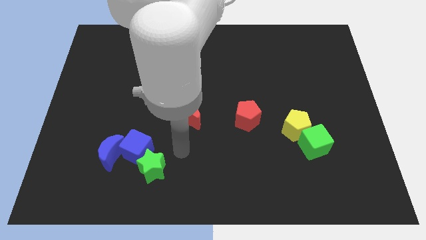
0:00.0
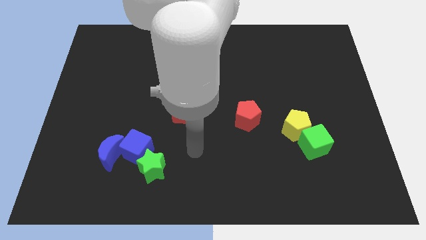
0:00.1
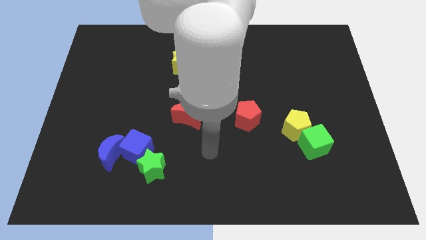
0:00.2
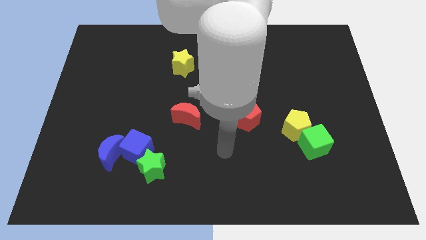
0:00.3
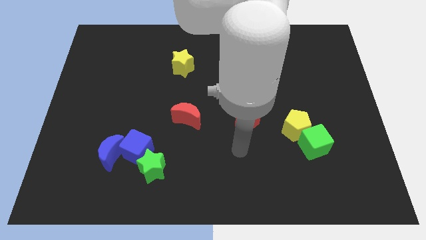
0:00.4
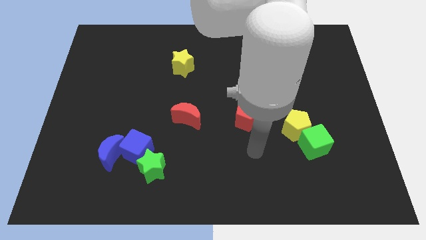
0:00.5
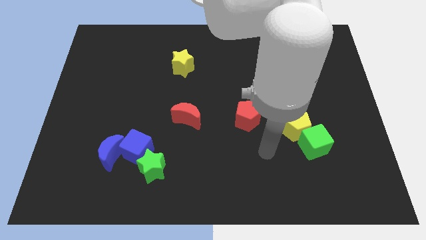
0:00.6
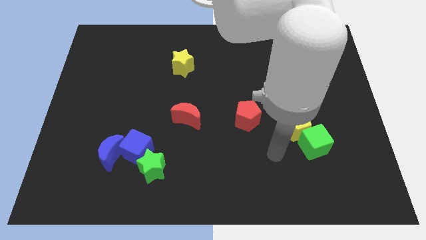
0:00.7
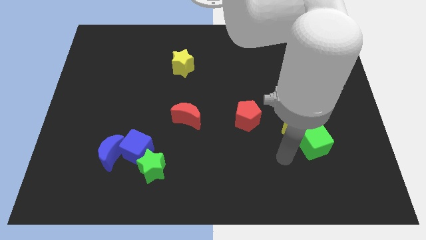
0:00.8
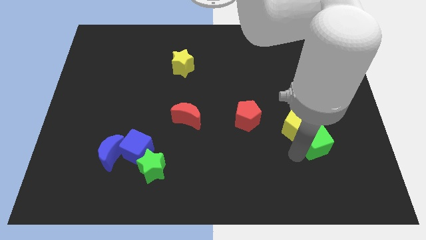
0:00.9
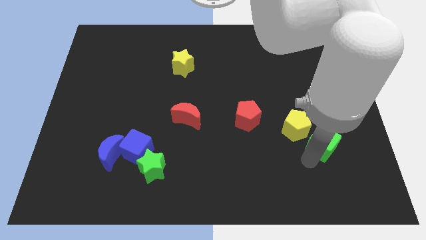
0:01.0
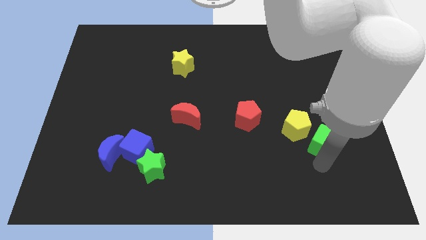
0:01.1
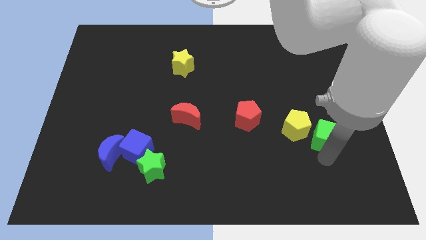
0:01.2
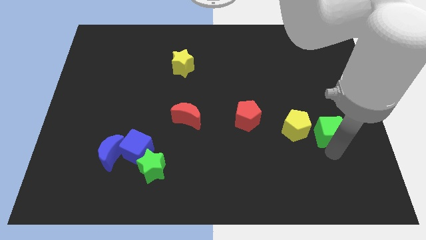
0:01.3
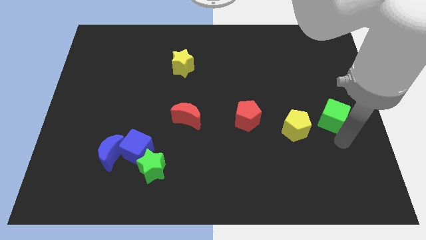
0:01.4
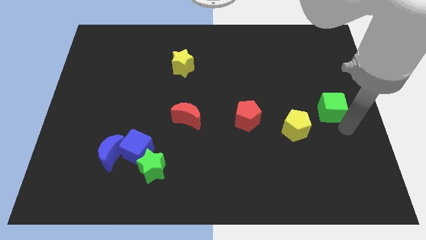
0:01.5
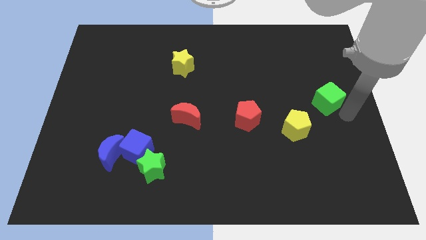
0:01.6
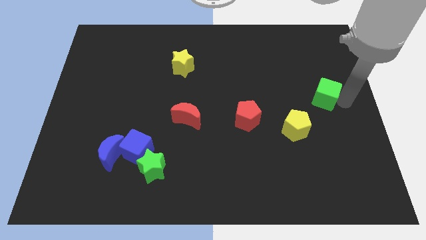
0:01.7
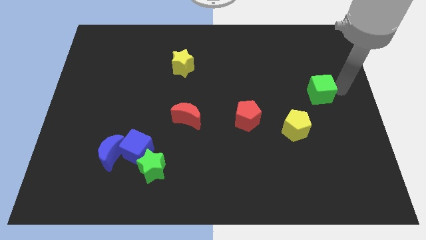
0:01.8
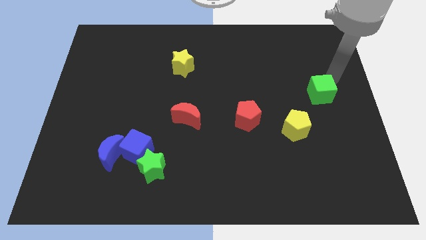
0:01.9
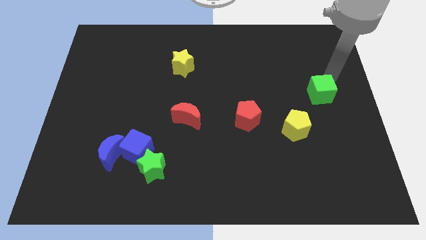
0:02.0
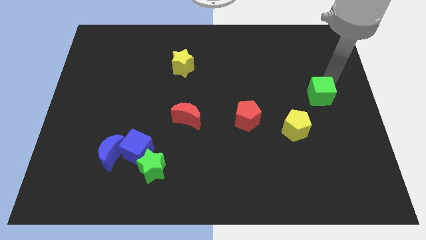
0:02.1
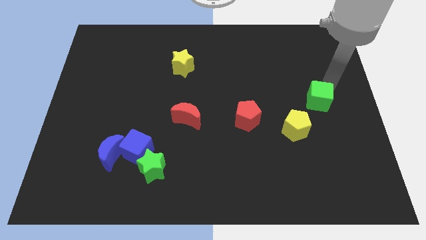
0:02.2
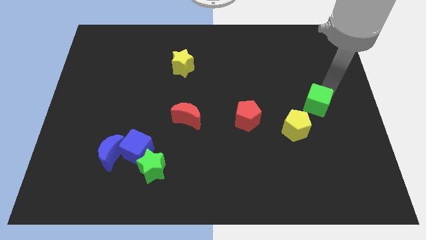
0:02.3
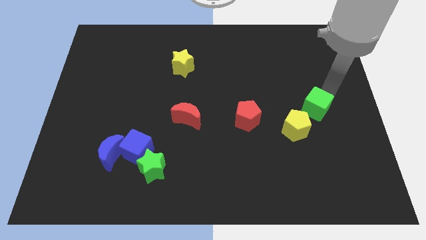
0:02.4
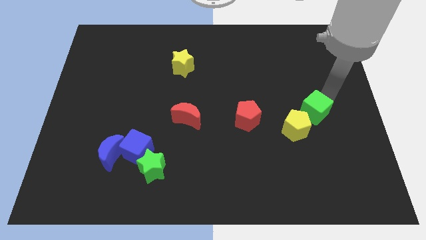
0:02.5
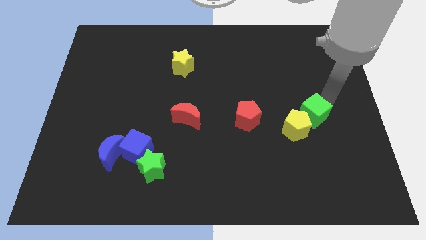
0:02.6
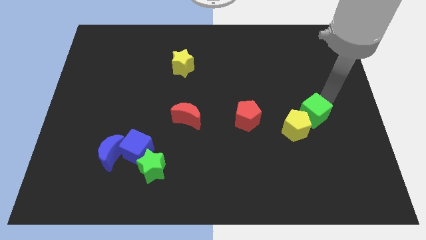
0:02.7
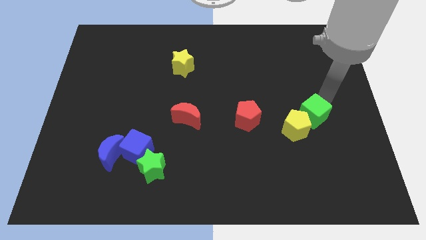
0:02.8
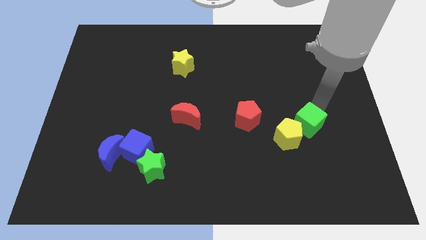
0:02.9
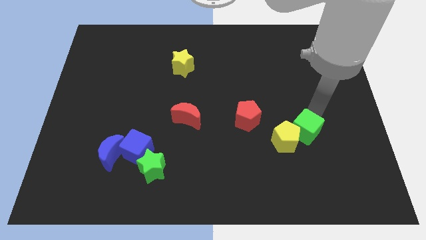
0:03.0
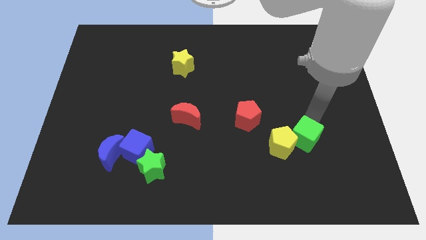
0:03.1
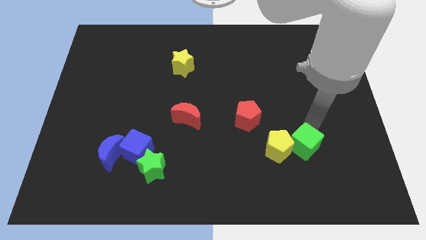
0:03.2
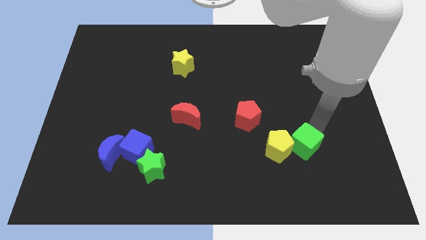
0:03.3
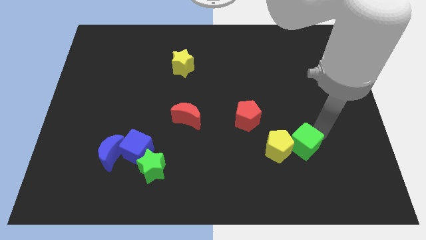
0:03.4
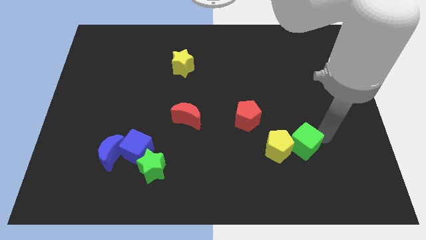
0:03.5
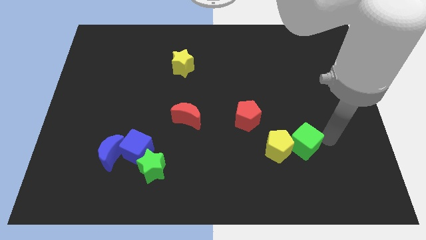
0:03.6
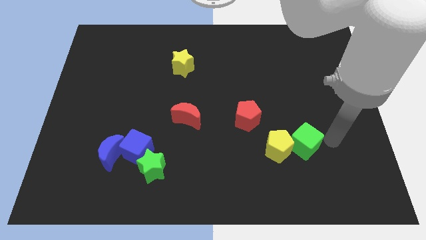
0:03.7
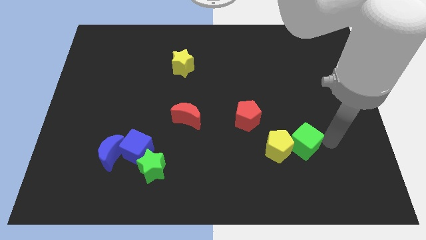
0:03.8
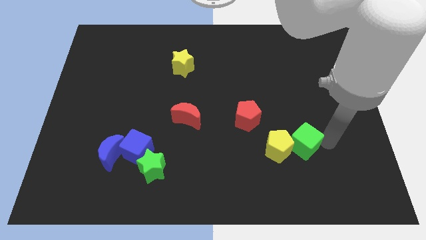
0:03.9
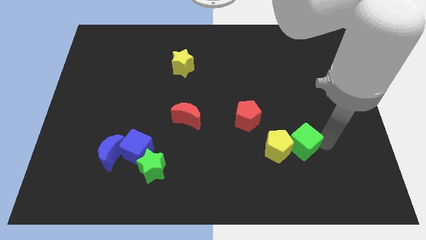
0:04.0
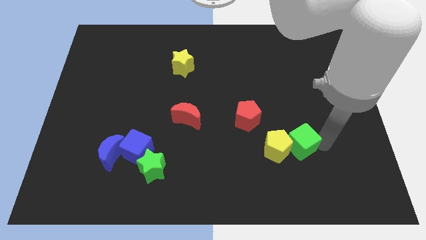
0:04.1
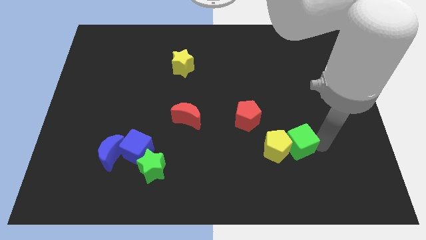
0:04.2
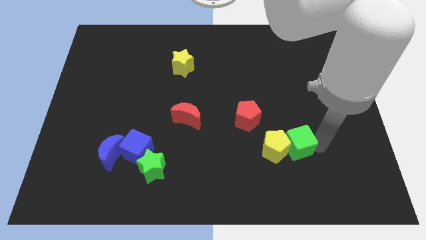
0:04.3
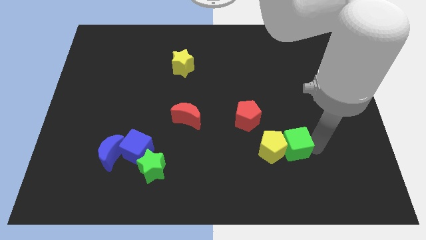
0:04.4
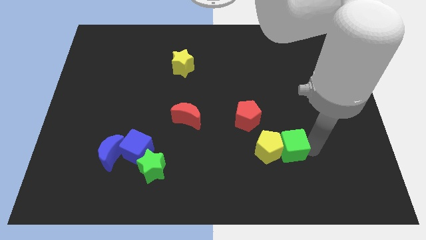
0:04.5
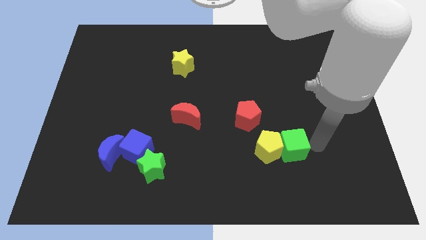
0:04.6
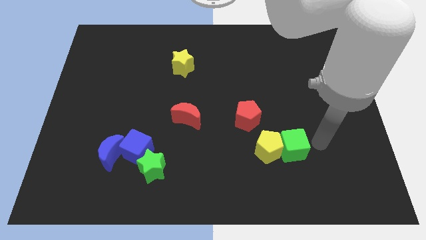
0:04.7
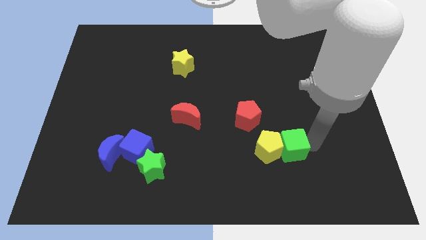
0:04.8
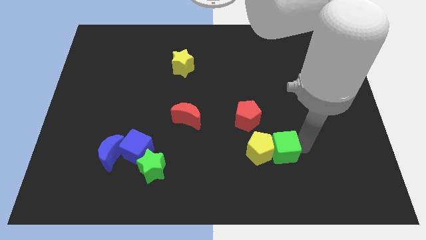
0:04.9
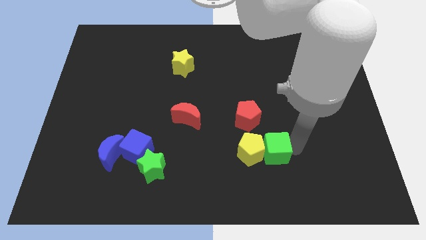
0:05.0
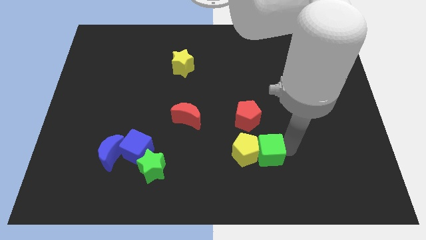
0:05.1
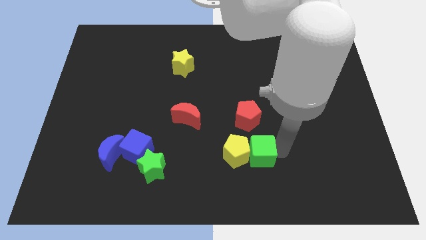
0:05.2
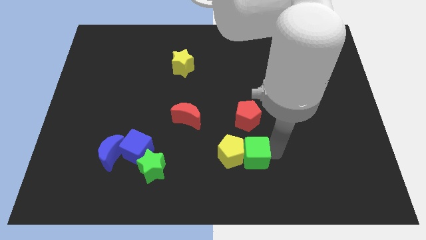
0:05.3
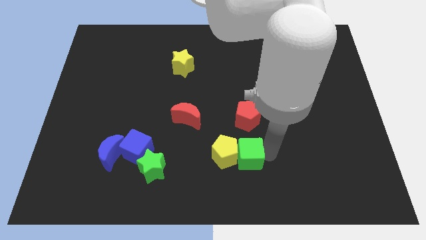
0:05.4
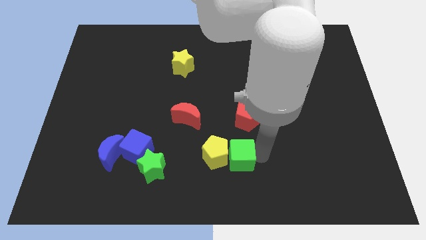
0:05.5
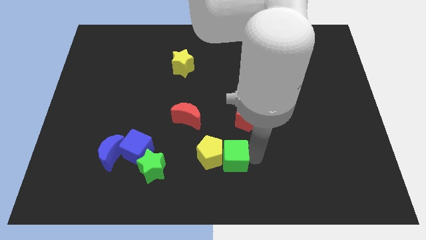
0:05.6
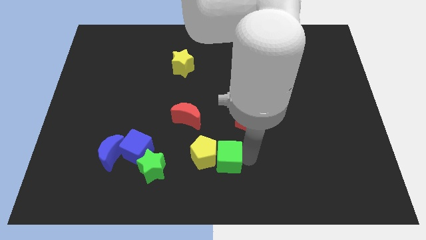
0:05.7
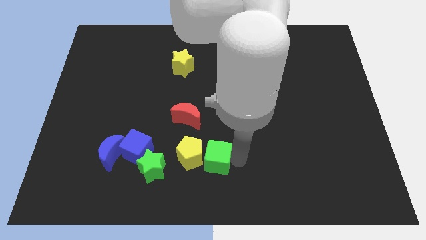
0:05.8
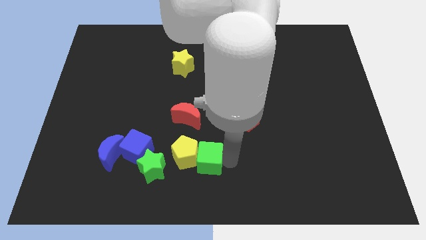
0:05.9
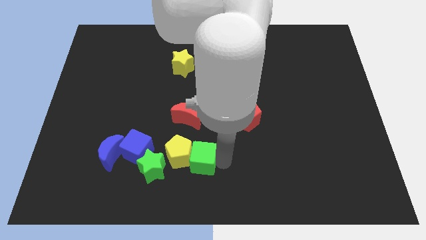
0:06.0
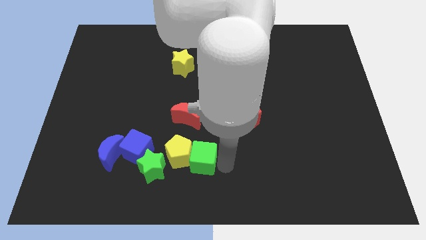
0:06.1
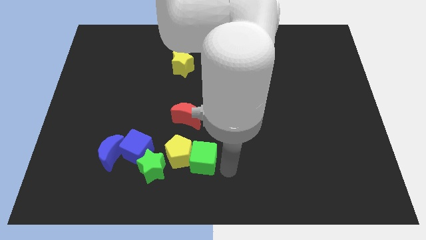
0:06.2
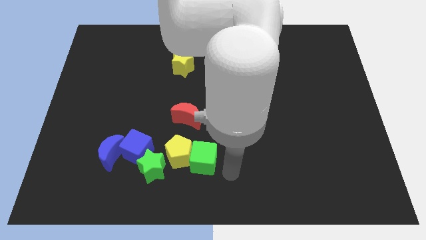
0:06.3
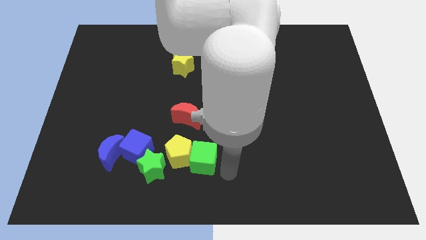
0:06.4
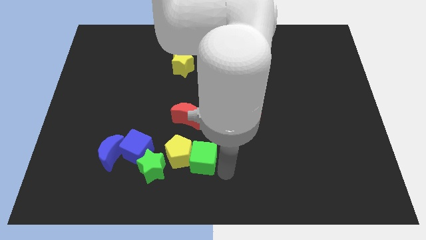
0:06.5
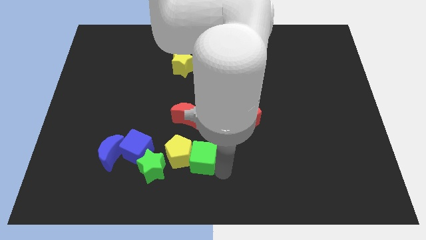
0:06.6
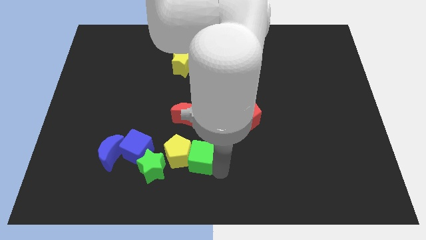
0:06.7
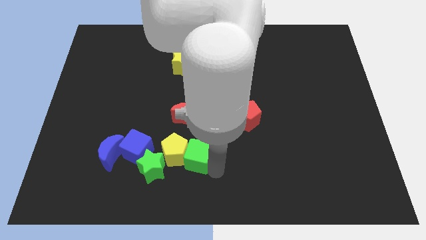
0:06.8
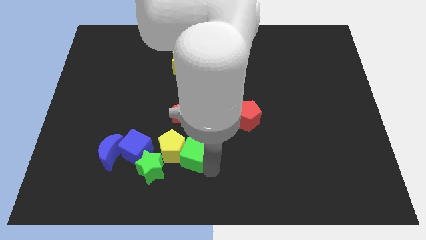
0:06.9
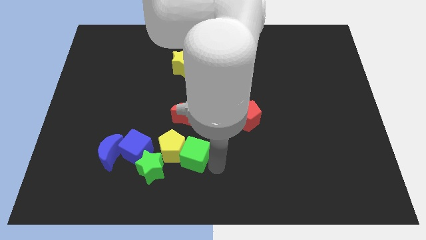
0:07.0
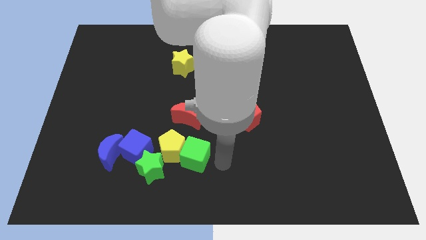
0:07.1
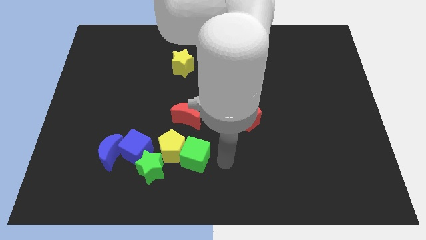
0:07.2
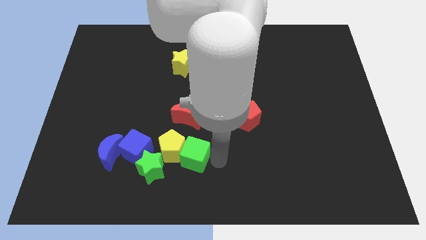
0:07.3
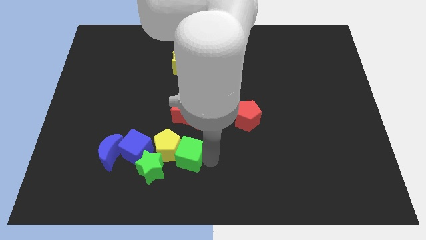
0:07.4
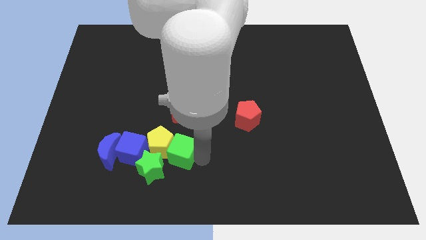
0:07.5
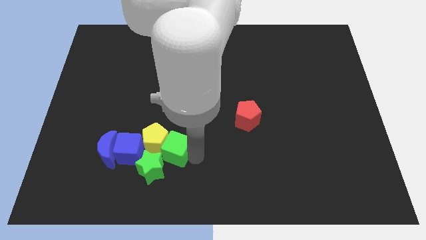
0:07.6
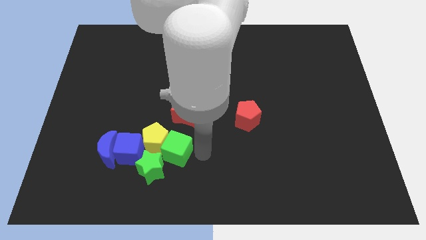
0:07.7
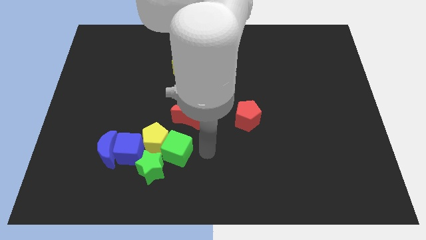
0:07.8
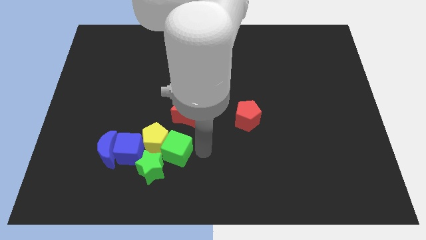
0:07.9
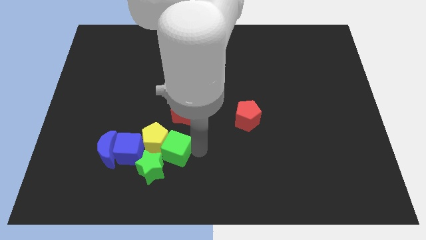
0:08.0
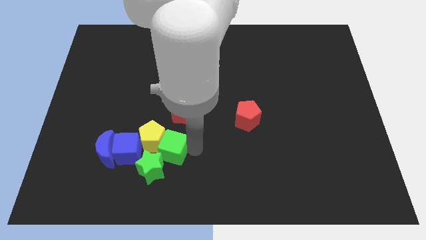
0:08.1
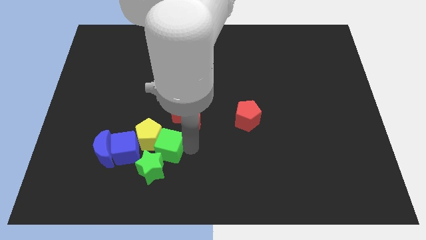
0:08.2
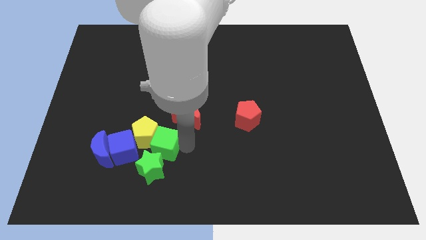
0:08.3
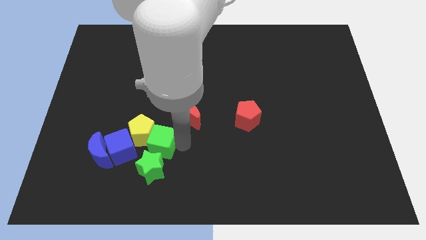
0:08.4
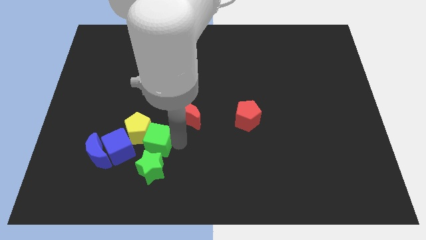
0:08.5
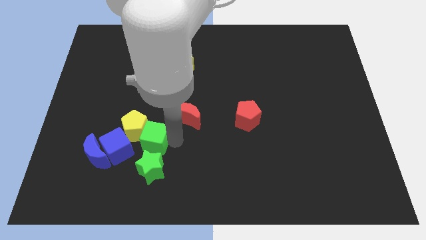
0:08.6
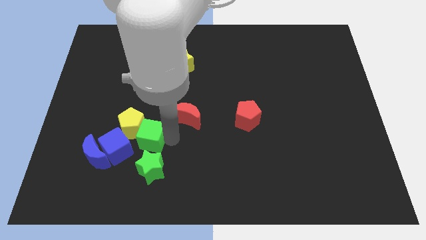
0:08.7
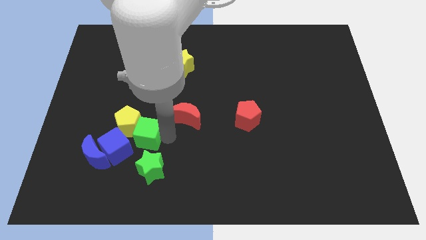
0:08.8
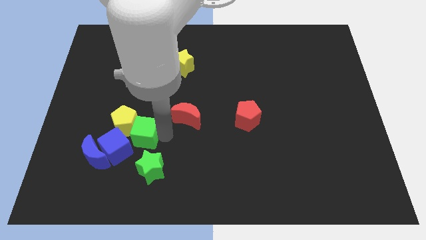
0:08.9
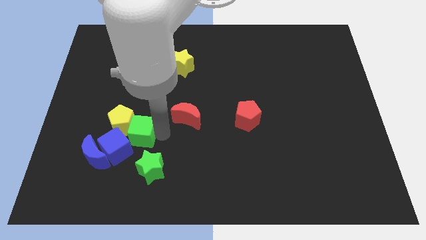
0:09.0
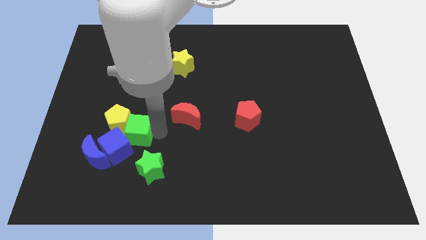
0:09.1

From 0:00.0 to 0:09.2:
put the green cube to the blue cube
